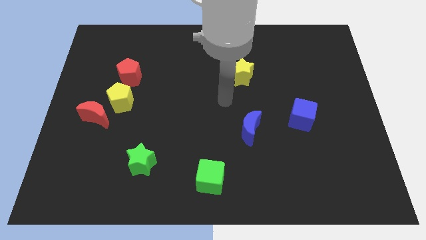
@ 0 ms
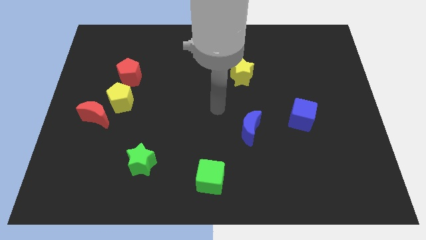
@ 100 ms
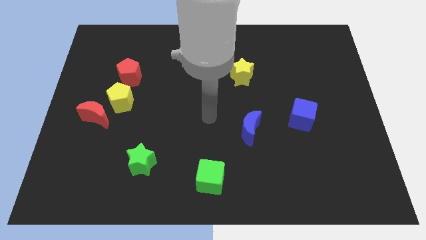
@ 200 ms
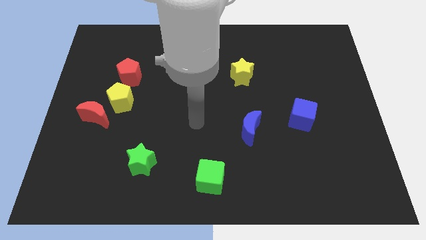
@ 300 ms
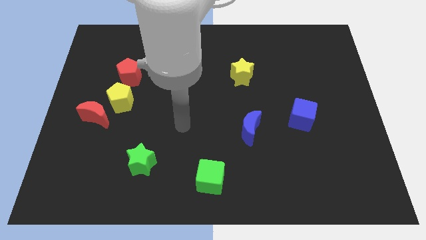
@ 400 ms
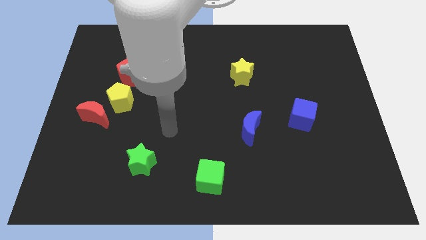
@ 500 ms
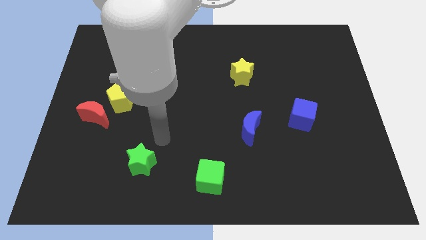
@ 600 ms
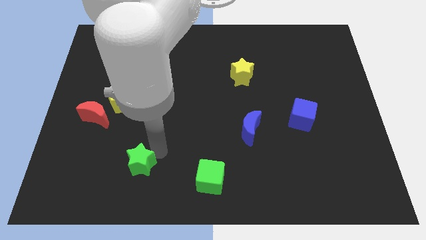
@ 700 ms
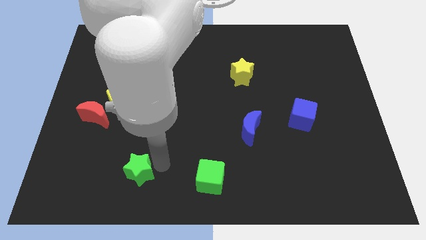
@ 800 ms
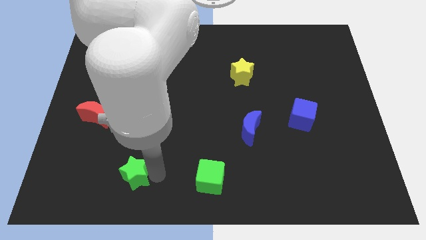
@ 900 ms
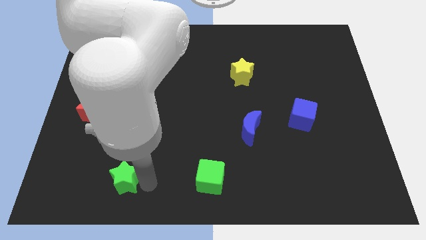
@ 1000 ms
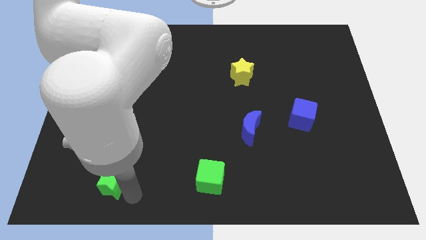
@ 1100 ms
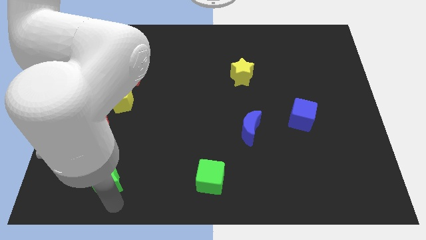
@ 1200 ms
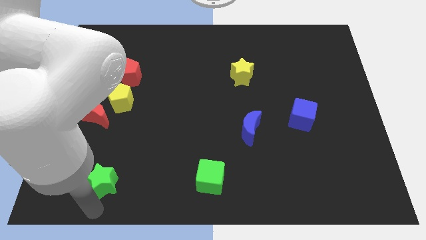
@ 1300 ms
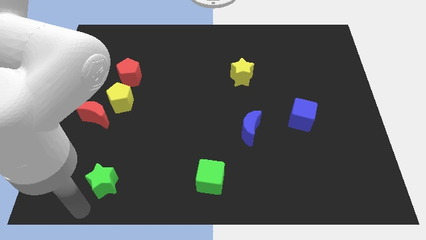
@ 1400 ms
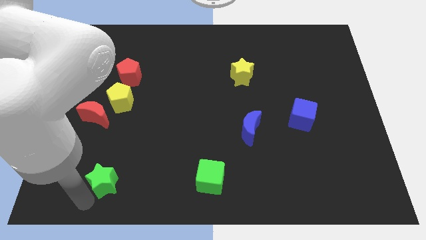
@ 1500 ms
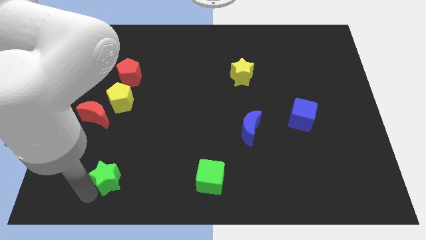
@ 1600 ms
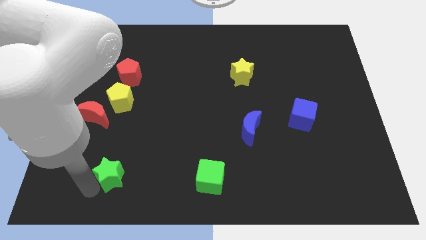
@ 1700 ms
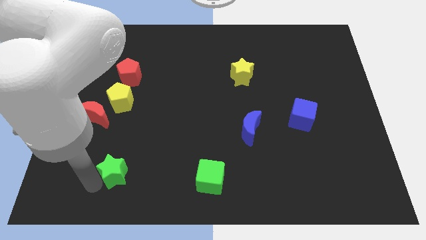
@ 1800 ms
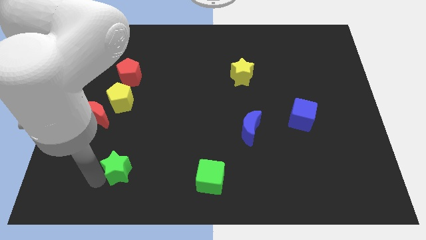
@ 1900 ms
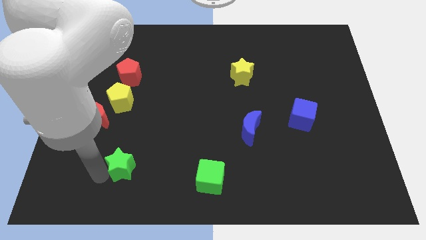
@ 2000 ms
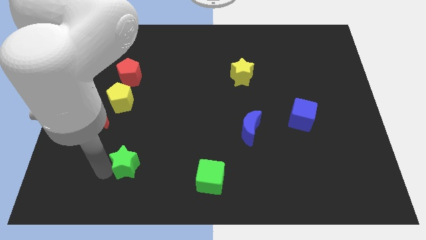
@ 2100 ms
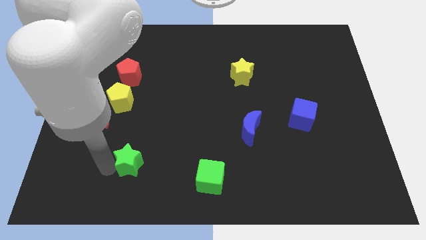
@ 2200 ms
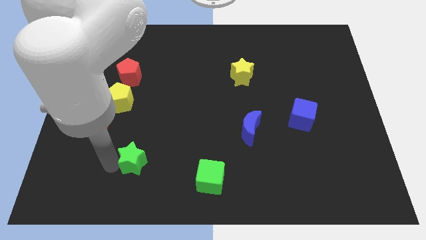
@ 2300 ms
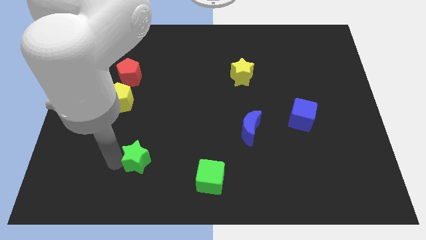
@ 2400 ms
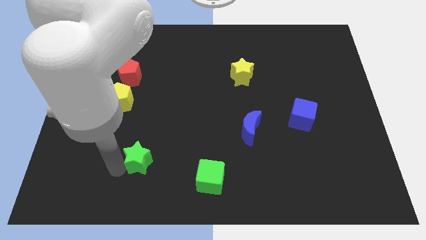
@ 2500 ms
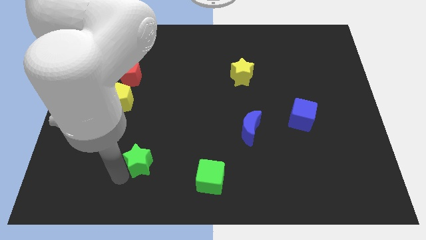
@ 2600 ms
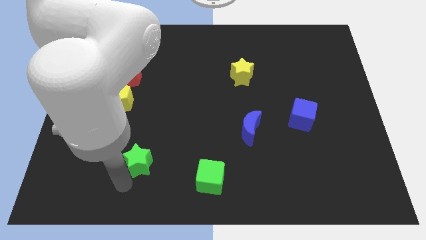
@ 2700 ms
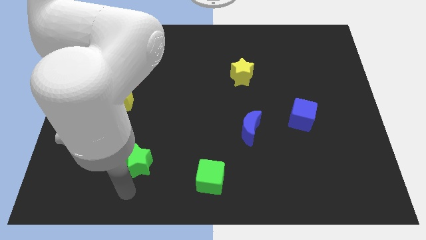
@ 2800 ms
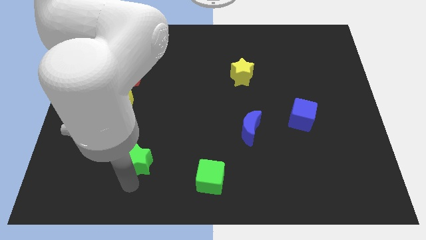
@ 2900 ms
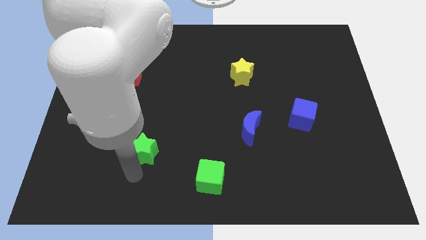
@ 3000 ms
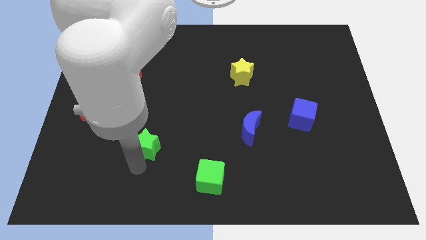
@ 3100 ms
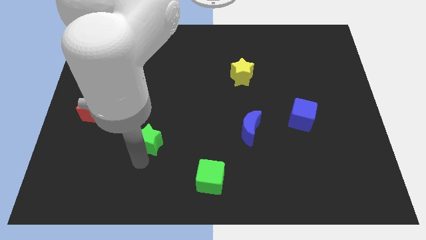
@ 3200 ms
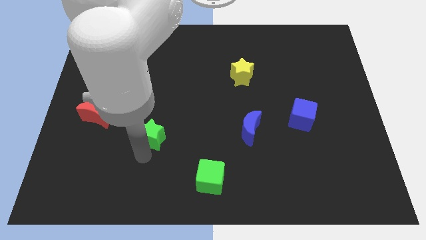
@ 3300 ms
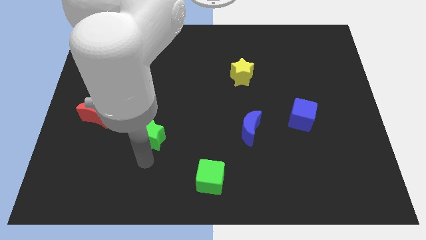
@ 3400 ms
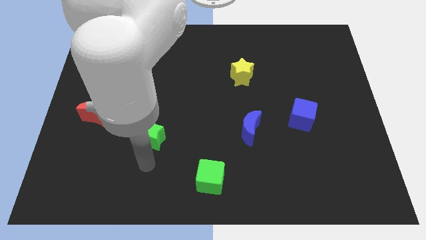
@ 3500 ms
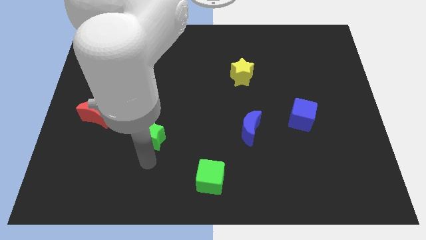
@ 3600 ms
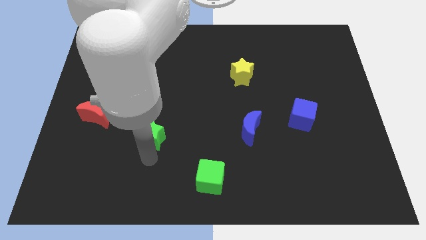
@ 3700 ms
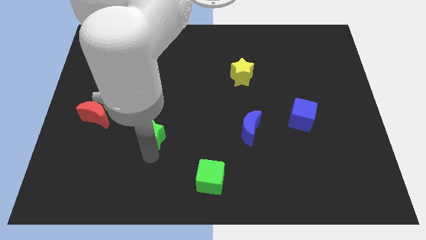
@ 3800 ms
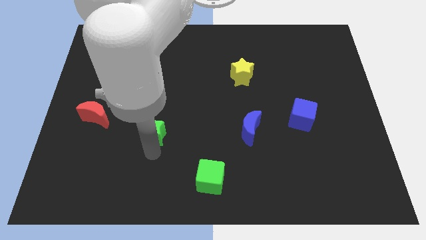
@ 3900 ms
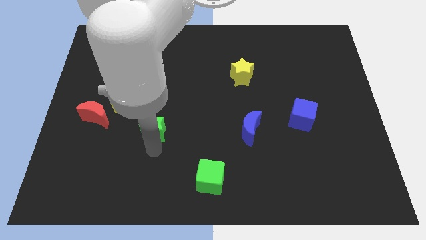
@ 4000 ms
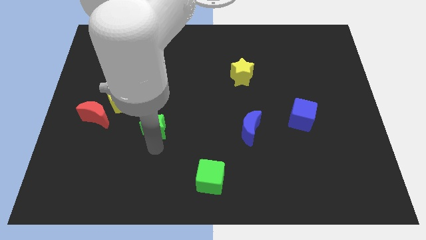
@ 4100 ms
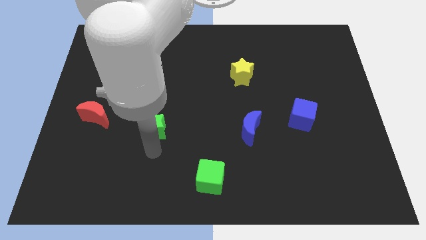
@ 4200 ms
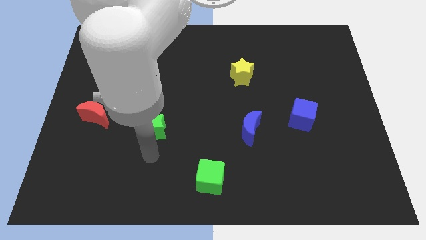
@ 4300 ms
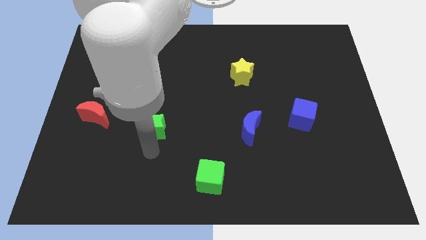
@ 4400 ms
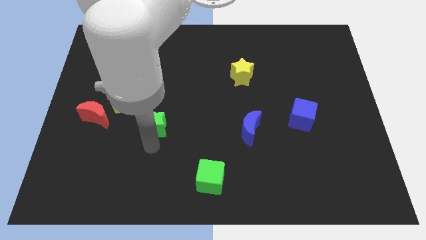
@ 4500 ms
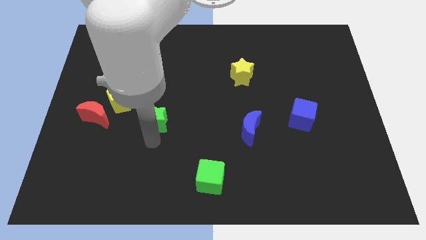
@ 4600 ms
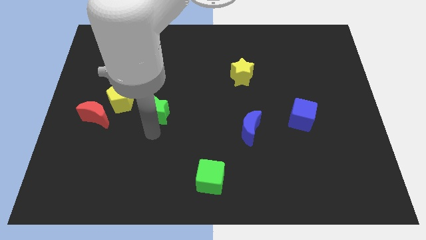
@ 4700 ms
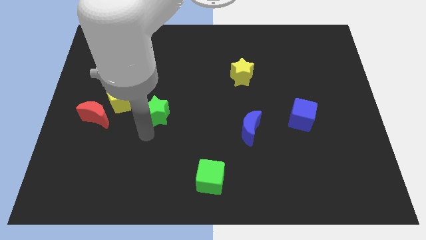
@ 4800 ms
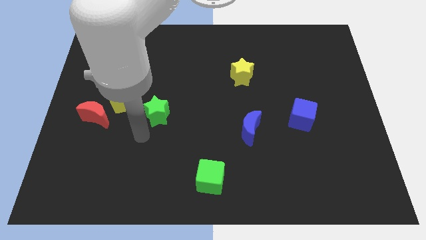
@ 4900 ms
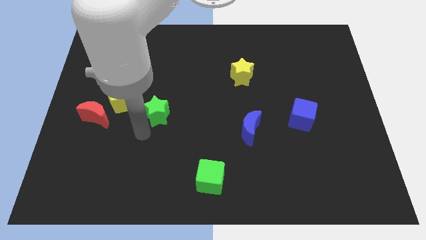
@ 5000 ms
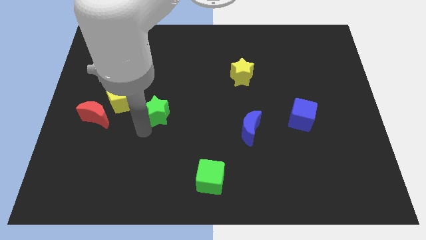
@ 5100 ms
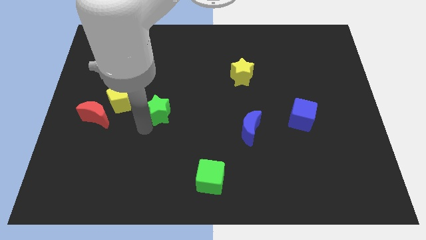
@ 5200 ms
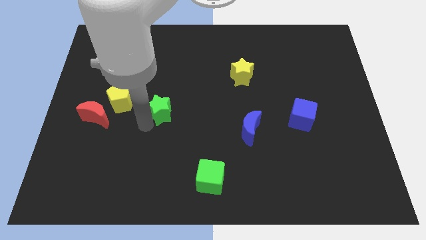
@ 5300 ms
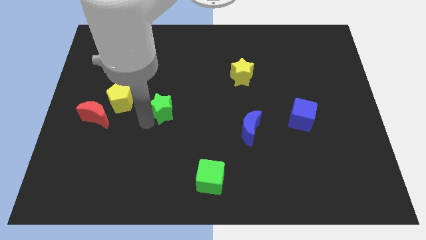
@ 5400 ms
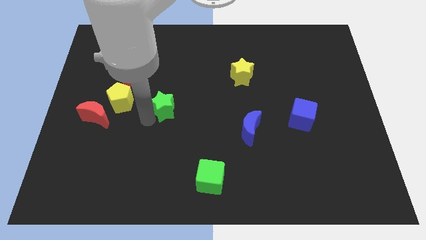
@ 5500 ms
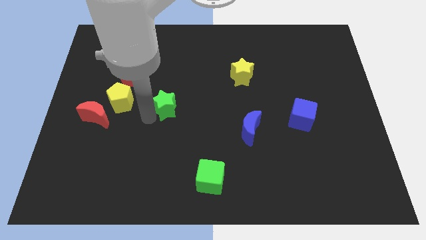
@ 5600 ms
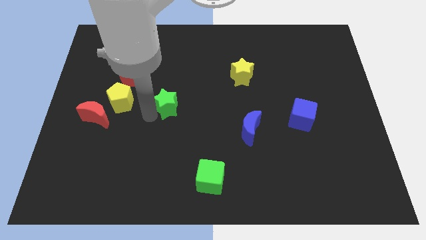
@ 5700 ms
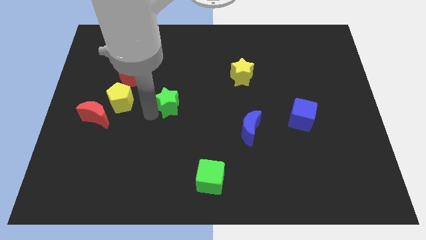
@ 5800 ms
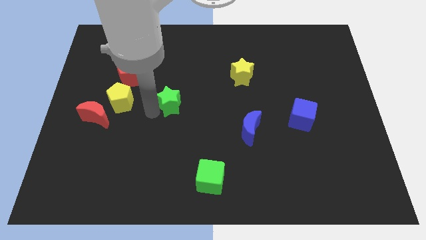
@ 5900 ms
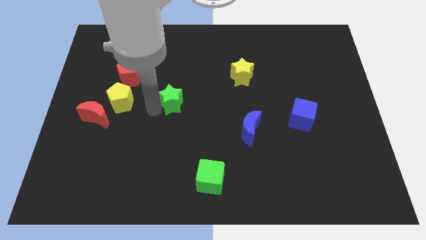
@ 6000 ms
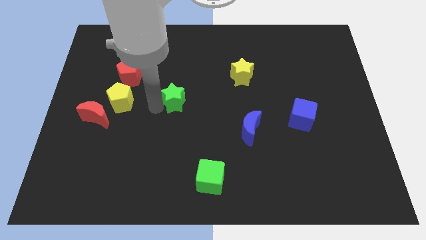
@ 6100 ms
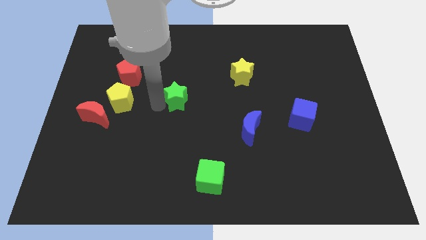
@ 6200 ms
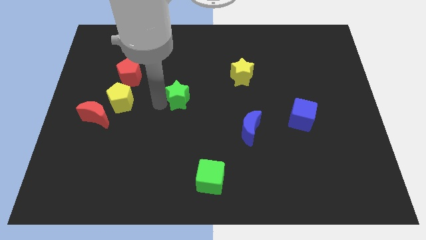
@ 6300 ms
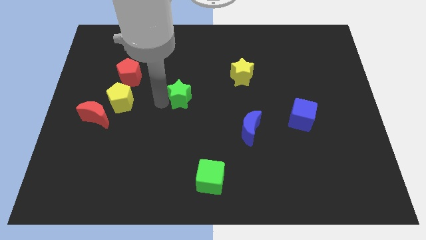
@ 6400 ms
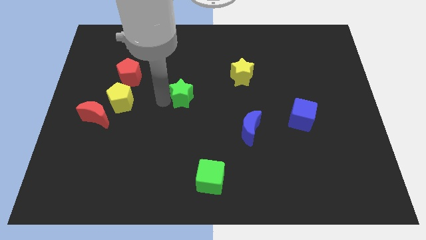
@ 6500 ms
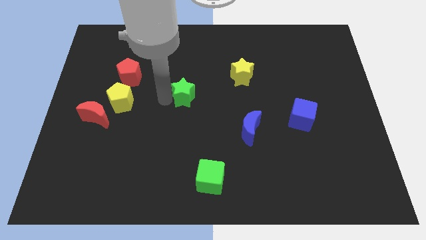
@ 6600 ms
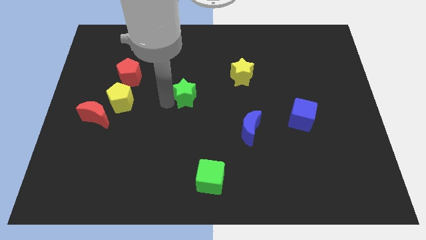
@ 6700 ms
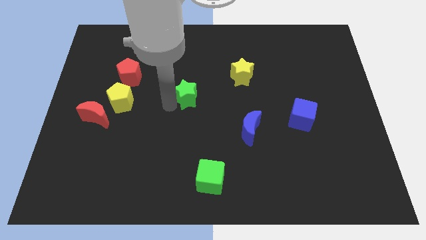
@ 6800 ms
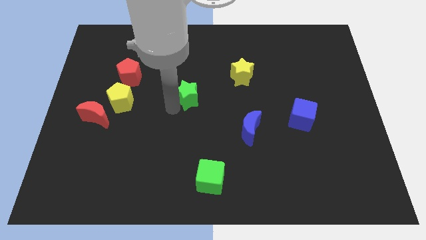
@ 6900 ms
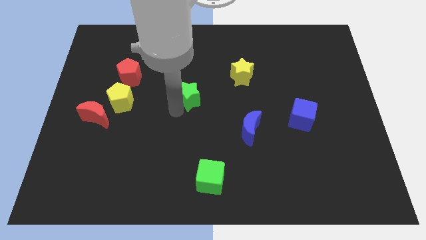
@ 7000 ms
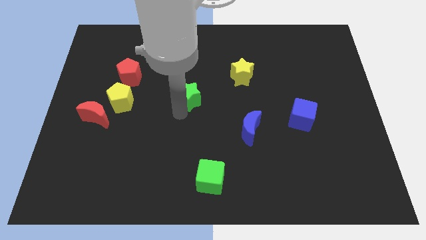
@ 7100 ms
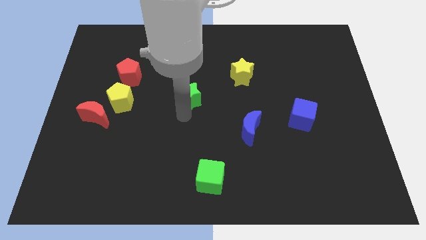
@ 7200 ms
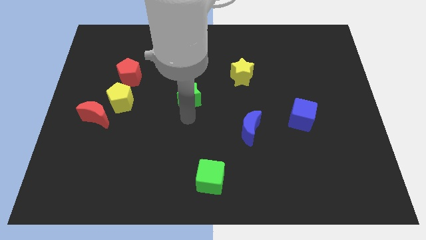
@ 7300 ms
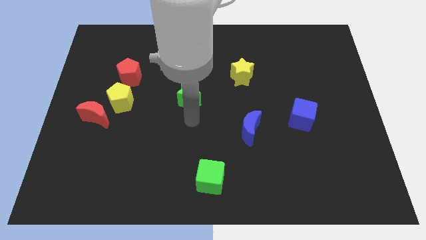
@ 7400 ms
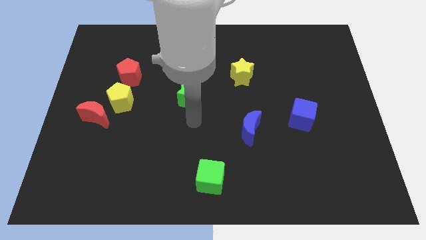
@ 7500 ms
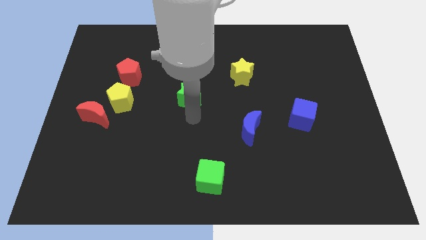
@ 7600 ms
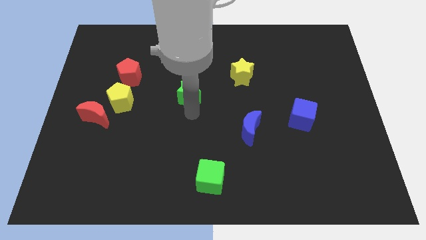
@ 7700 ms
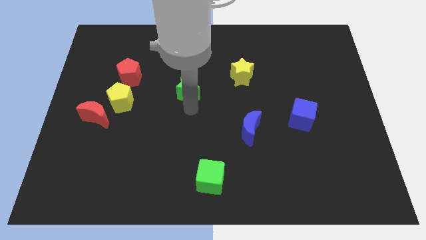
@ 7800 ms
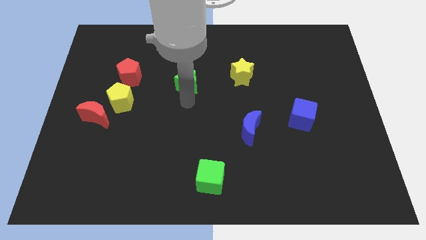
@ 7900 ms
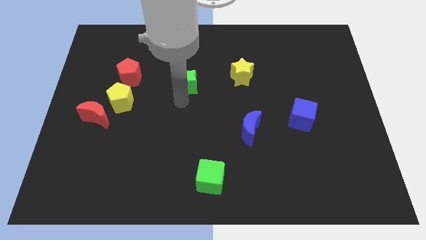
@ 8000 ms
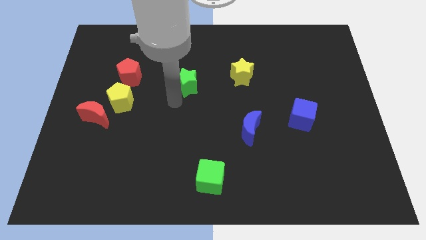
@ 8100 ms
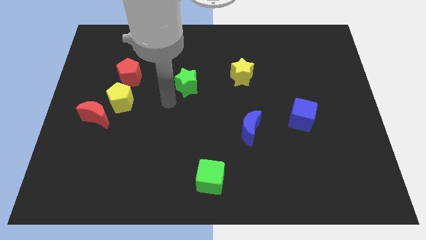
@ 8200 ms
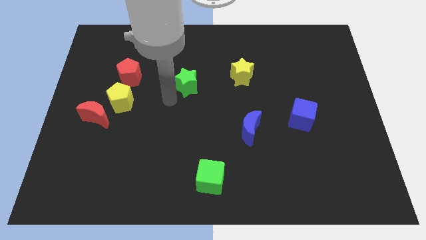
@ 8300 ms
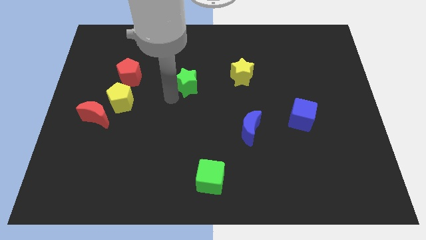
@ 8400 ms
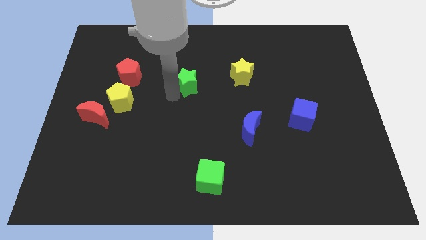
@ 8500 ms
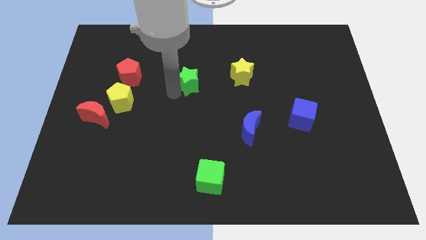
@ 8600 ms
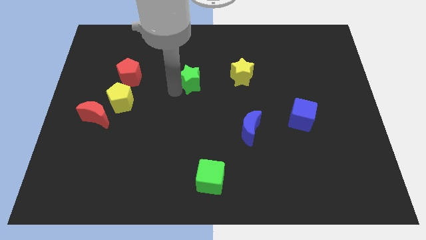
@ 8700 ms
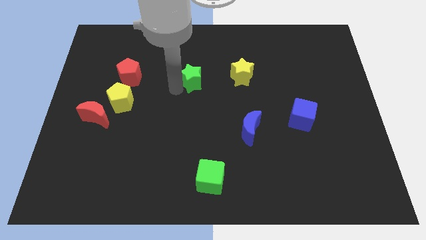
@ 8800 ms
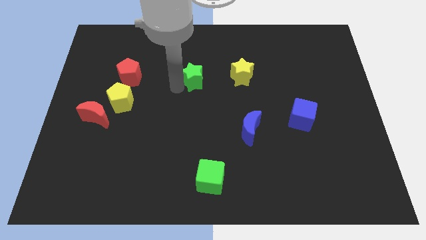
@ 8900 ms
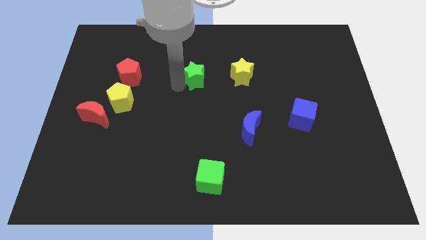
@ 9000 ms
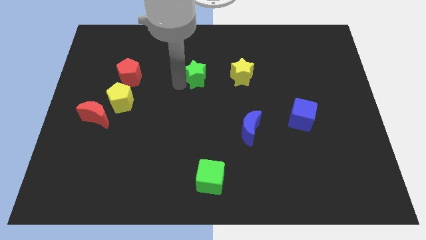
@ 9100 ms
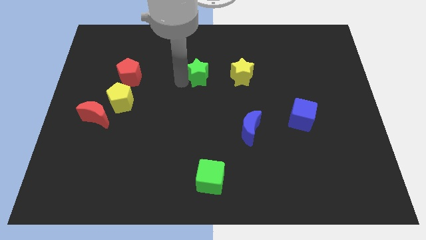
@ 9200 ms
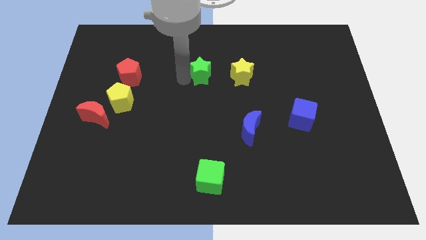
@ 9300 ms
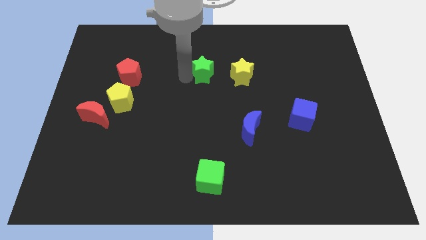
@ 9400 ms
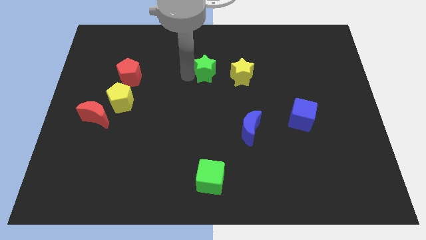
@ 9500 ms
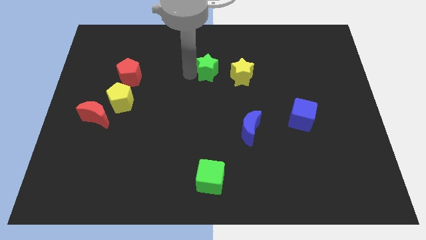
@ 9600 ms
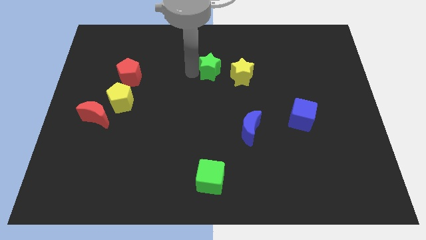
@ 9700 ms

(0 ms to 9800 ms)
slide the green star diagonally up and to the left of the yellow star
